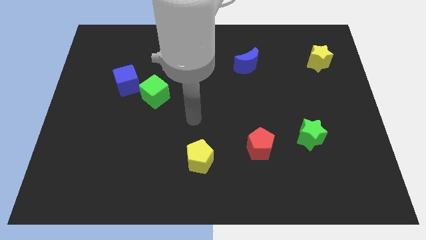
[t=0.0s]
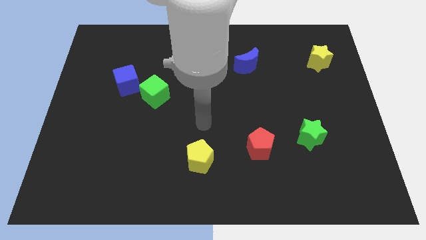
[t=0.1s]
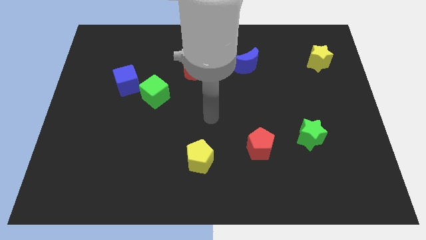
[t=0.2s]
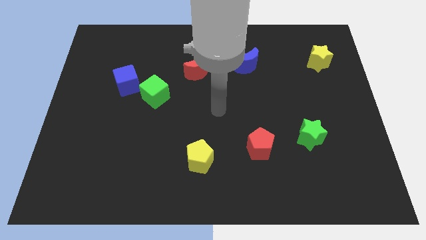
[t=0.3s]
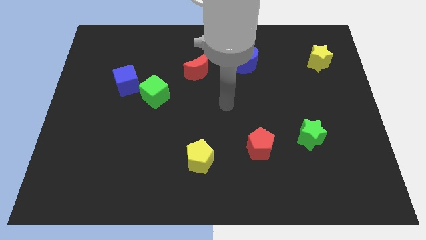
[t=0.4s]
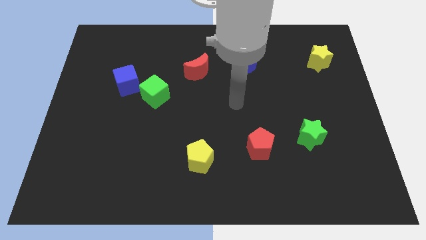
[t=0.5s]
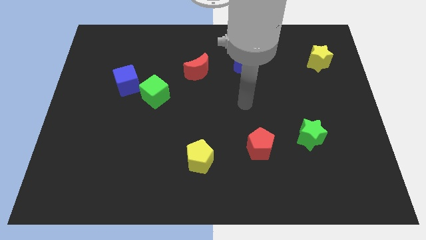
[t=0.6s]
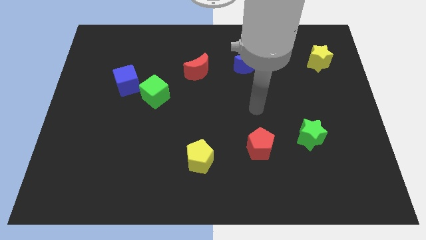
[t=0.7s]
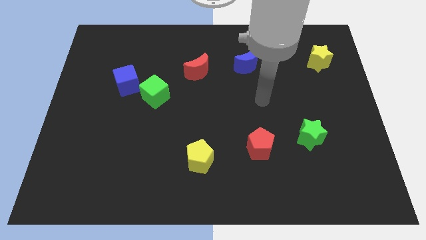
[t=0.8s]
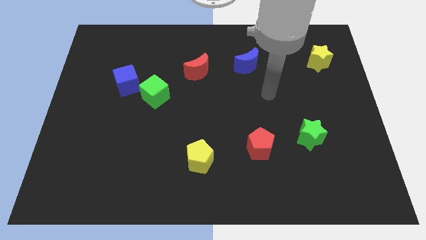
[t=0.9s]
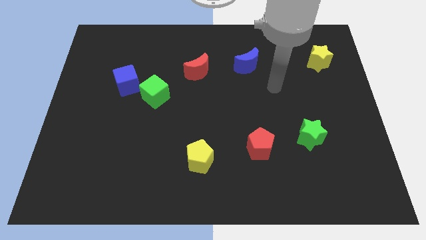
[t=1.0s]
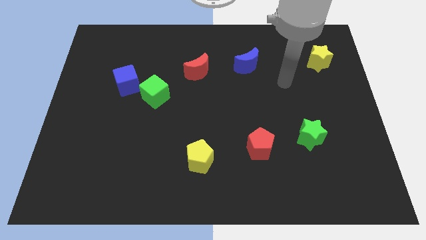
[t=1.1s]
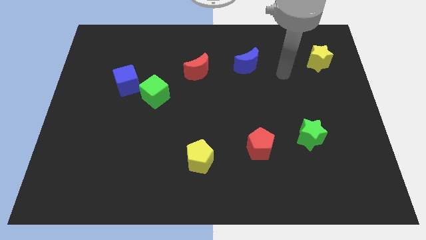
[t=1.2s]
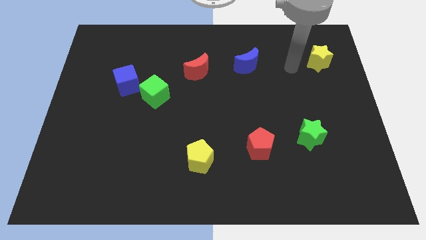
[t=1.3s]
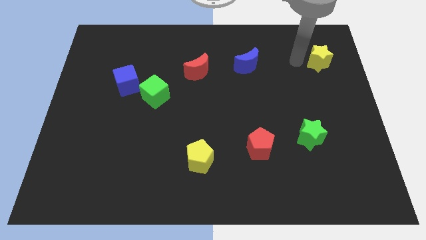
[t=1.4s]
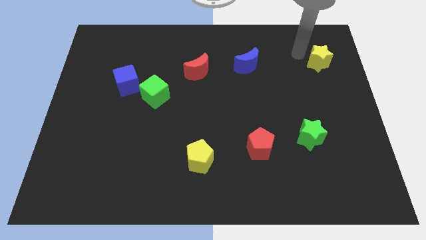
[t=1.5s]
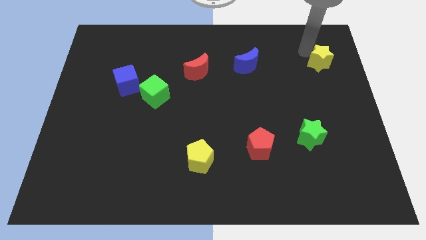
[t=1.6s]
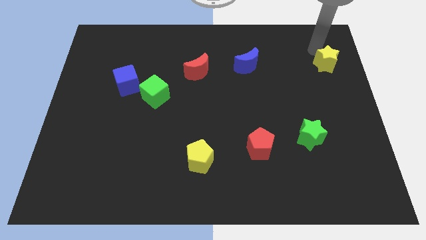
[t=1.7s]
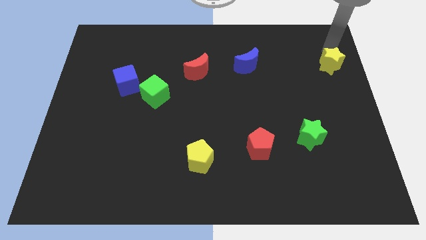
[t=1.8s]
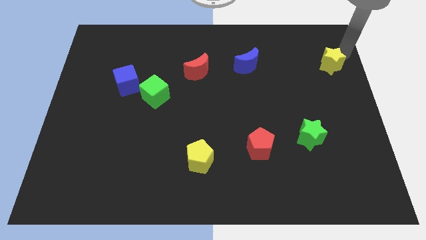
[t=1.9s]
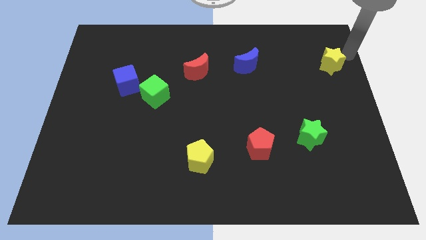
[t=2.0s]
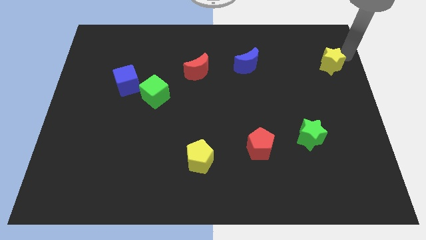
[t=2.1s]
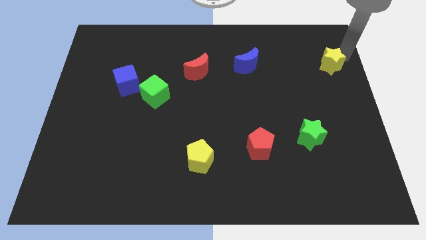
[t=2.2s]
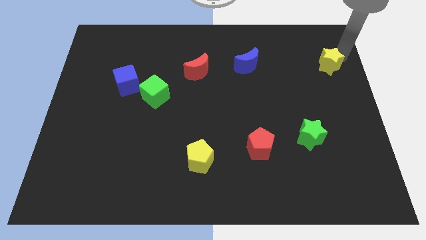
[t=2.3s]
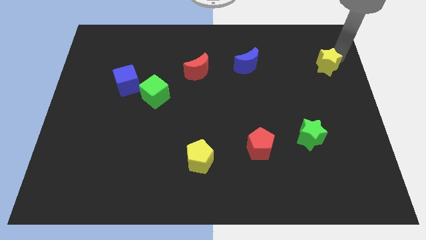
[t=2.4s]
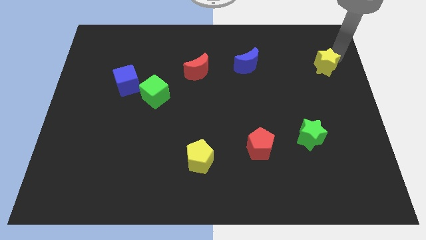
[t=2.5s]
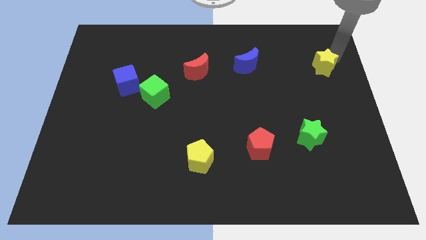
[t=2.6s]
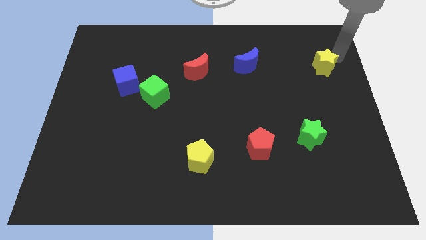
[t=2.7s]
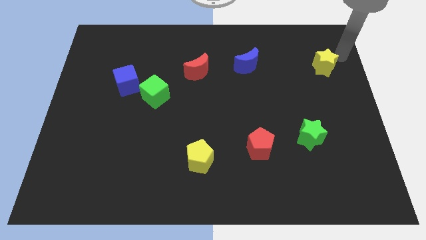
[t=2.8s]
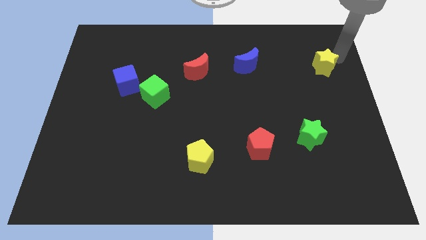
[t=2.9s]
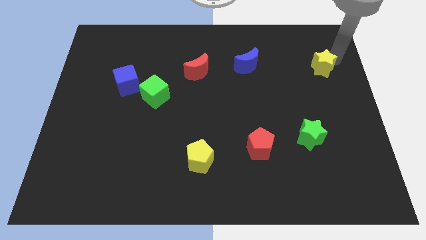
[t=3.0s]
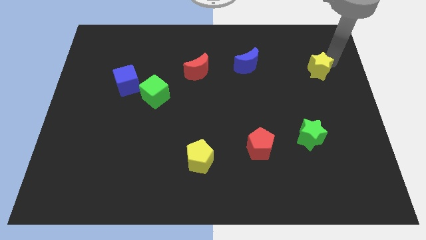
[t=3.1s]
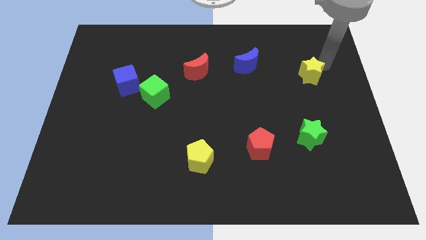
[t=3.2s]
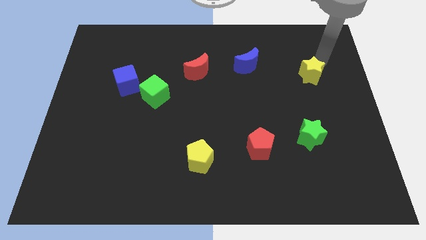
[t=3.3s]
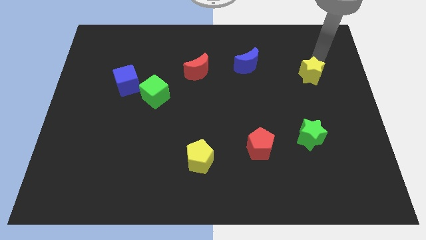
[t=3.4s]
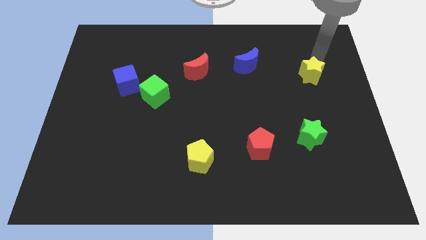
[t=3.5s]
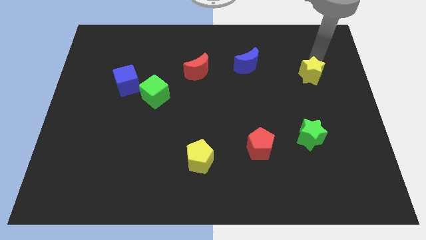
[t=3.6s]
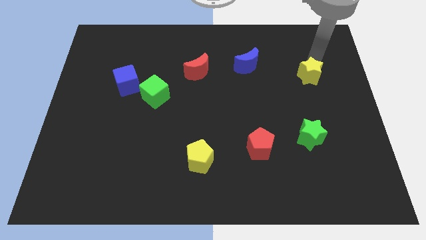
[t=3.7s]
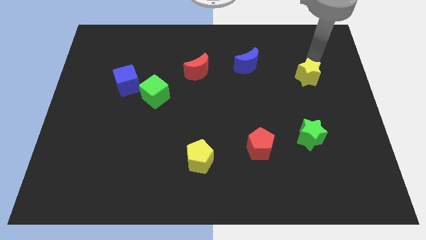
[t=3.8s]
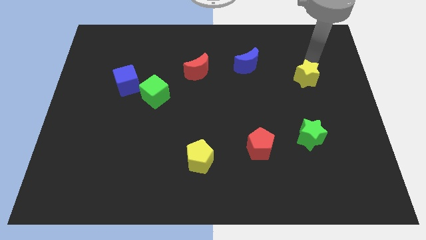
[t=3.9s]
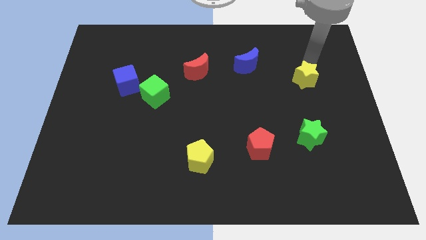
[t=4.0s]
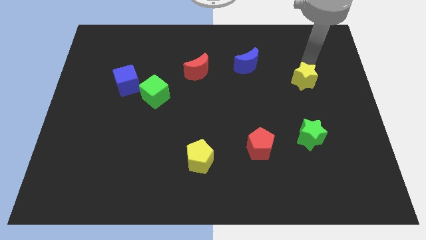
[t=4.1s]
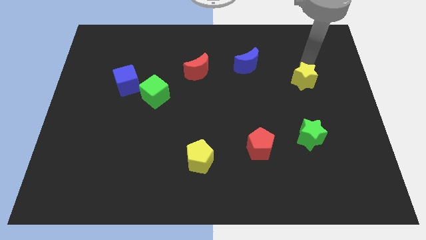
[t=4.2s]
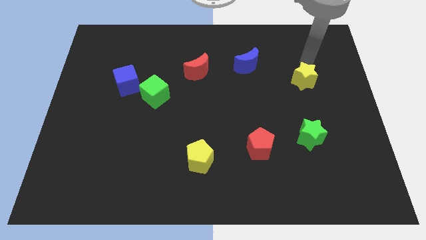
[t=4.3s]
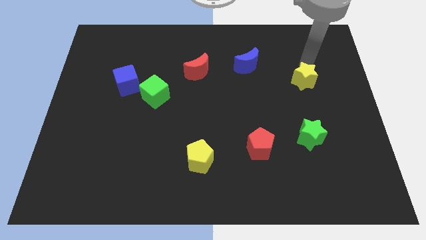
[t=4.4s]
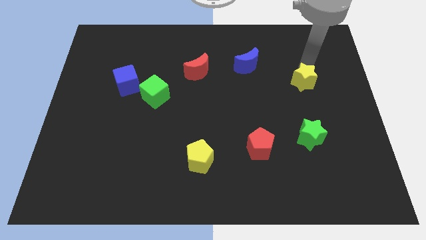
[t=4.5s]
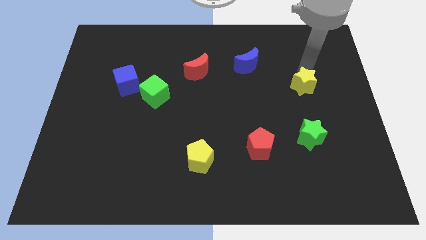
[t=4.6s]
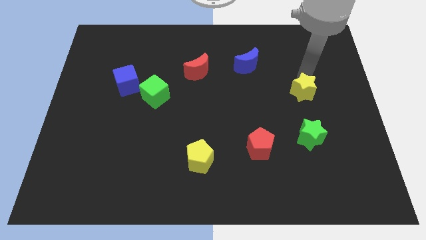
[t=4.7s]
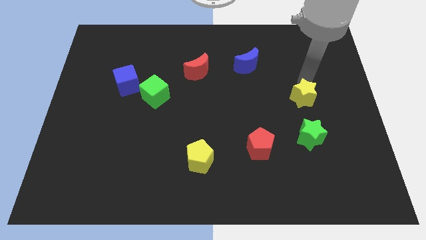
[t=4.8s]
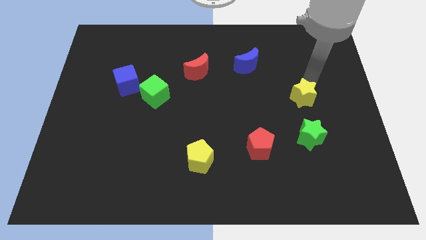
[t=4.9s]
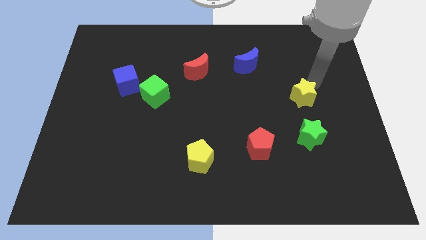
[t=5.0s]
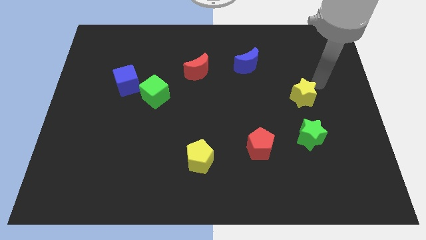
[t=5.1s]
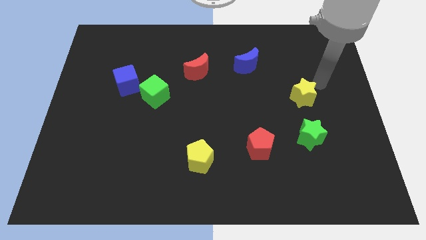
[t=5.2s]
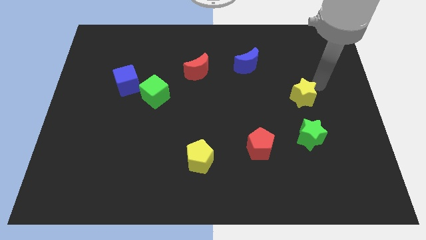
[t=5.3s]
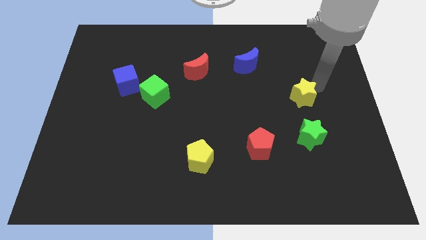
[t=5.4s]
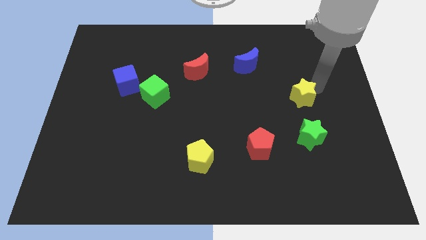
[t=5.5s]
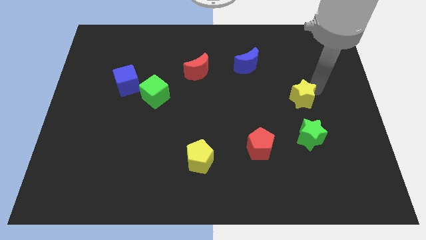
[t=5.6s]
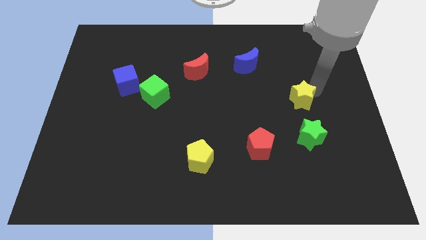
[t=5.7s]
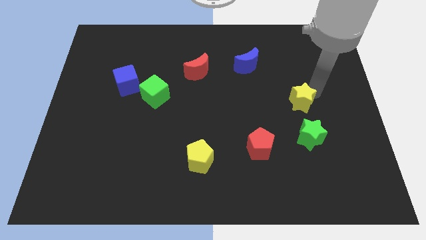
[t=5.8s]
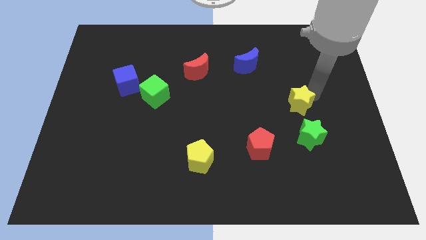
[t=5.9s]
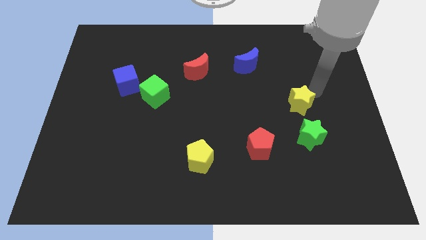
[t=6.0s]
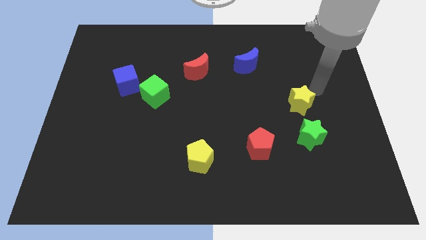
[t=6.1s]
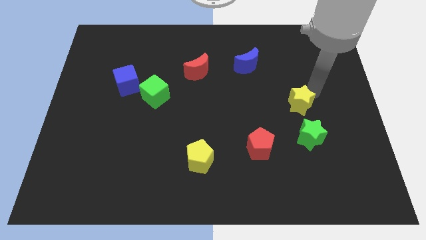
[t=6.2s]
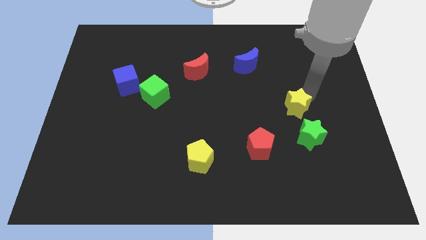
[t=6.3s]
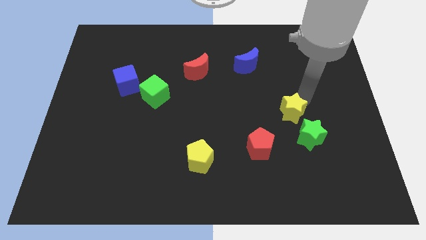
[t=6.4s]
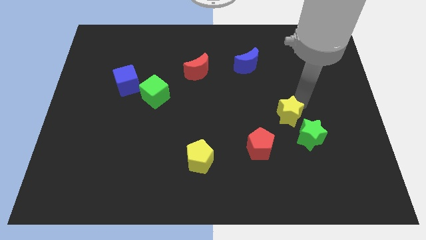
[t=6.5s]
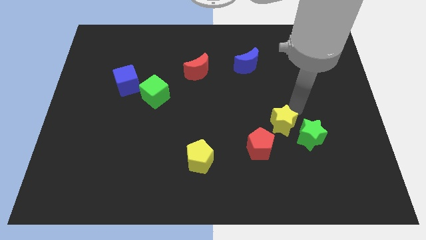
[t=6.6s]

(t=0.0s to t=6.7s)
move the yellow star downwards and then to the left

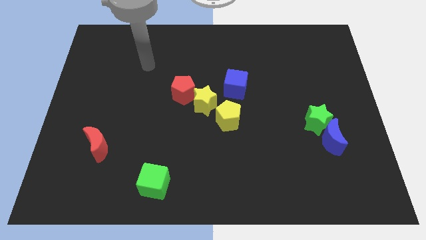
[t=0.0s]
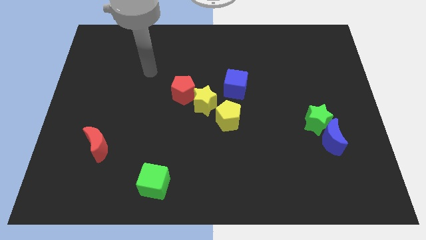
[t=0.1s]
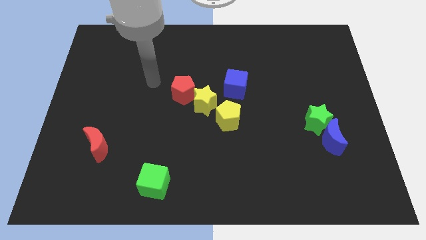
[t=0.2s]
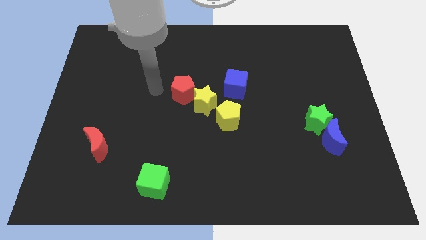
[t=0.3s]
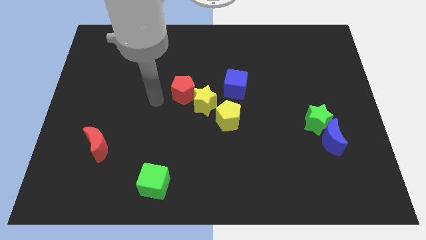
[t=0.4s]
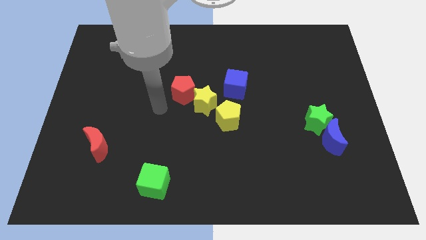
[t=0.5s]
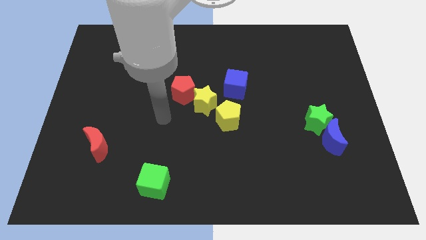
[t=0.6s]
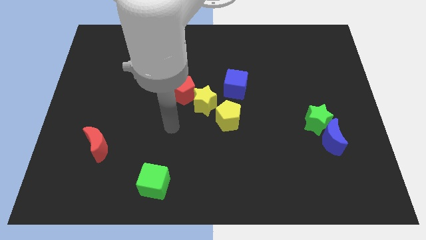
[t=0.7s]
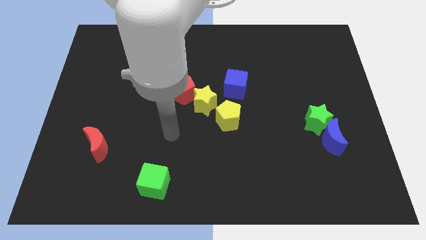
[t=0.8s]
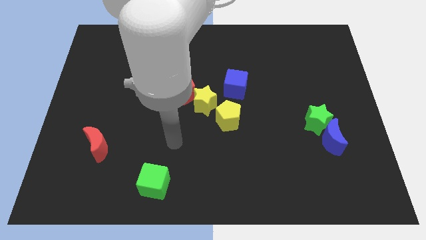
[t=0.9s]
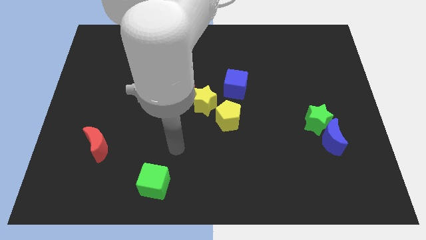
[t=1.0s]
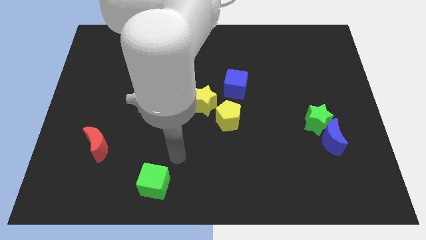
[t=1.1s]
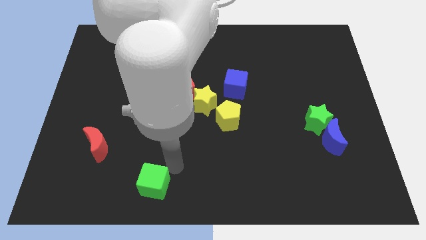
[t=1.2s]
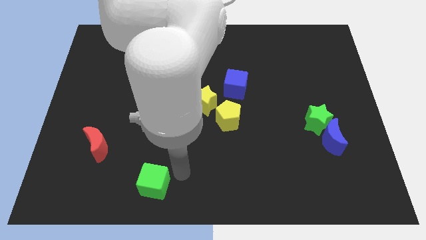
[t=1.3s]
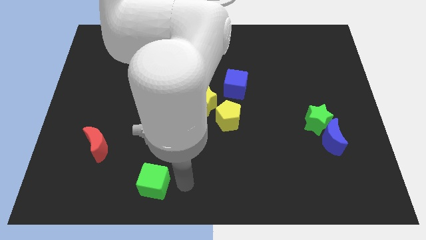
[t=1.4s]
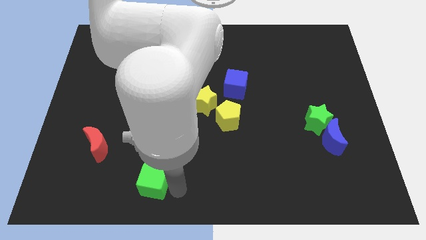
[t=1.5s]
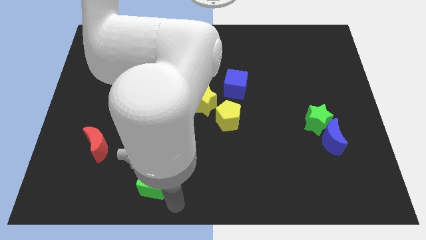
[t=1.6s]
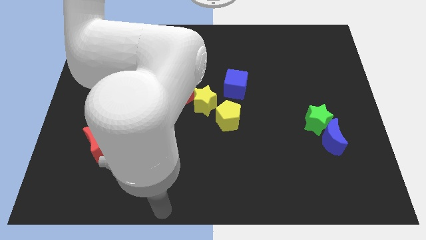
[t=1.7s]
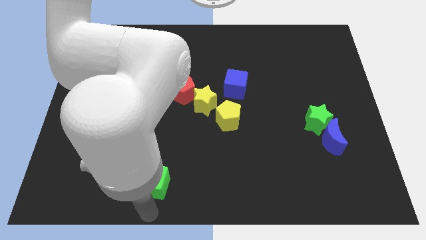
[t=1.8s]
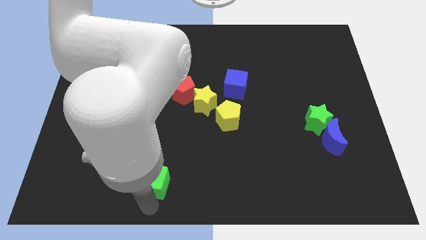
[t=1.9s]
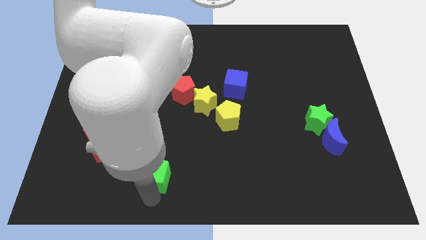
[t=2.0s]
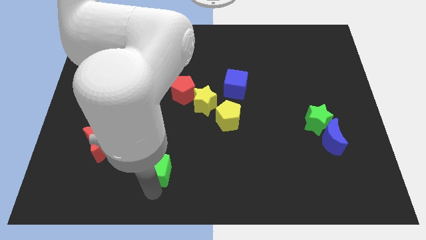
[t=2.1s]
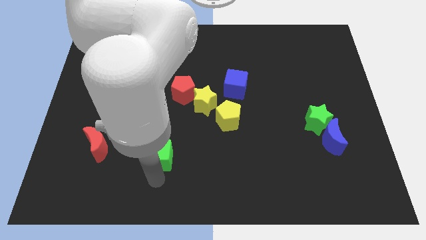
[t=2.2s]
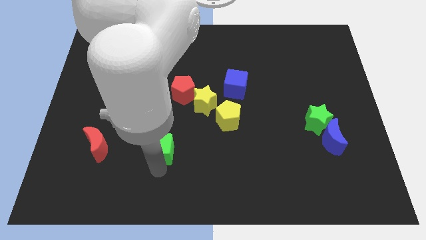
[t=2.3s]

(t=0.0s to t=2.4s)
slightly move the green cube upwards
